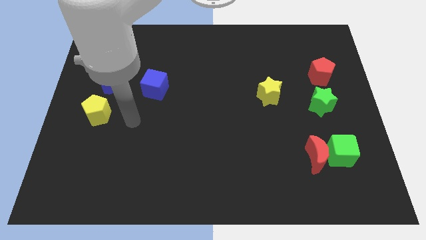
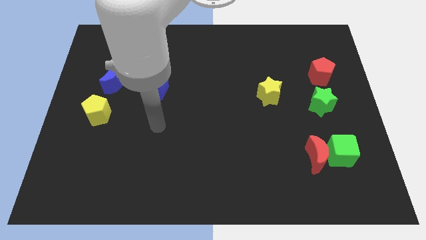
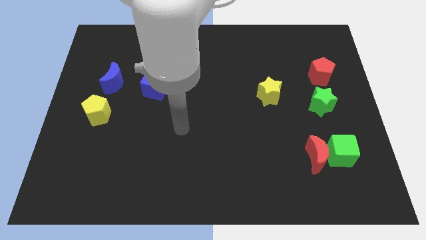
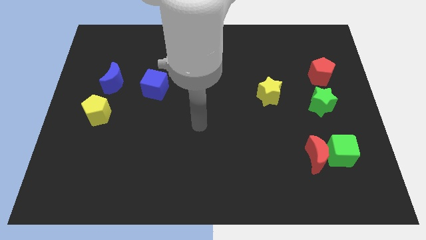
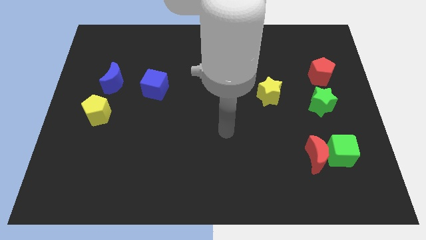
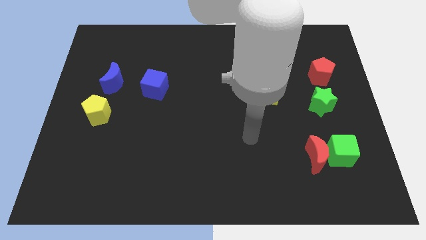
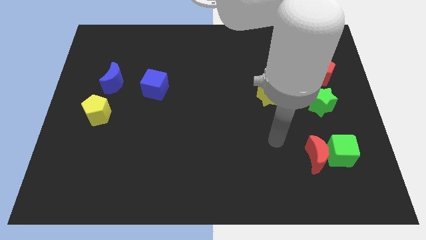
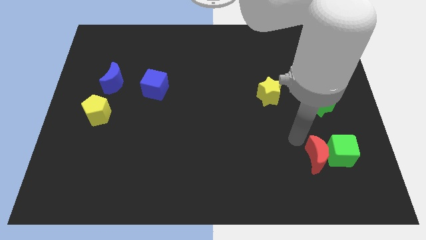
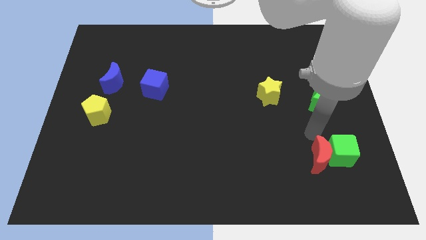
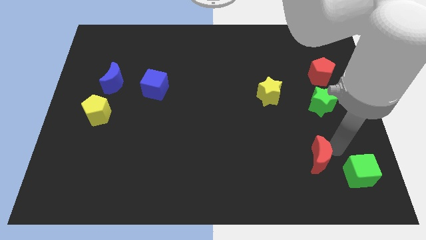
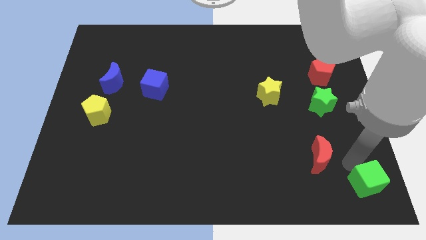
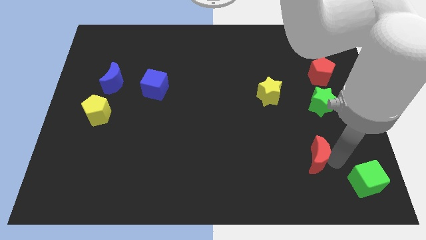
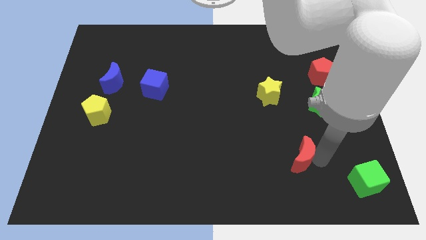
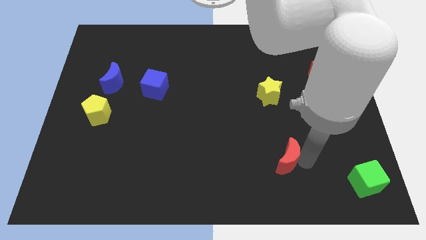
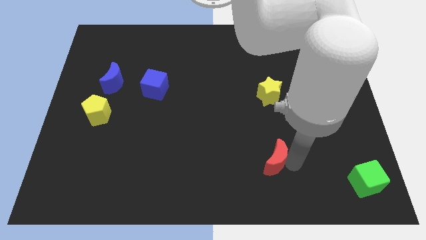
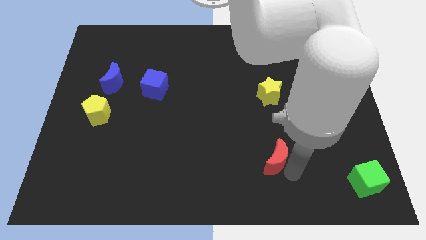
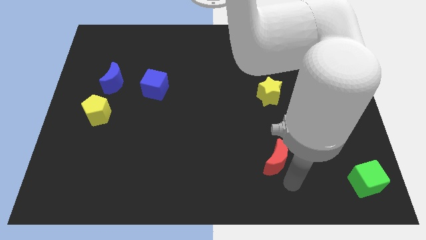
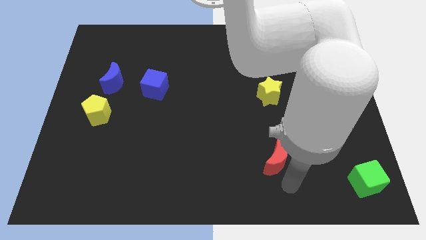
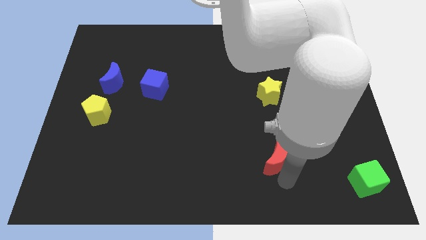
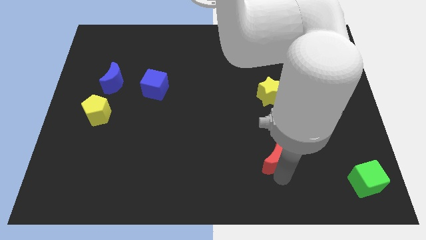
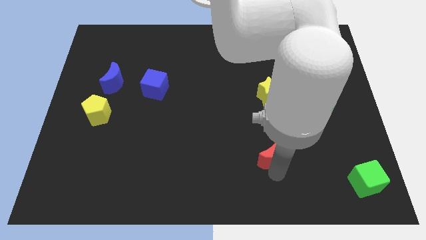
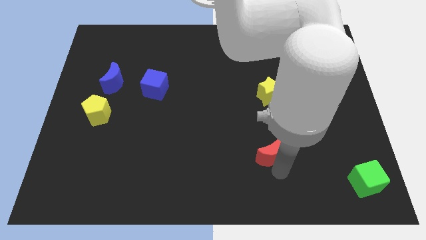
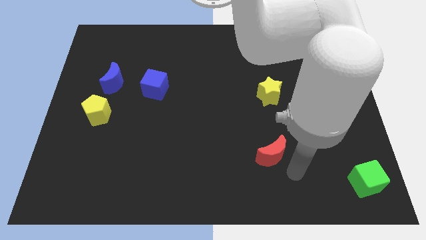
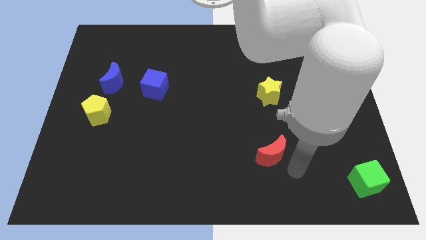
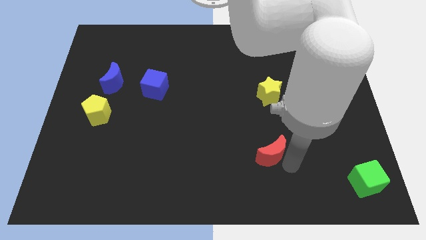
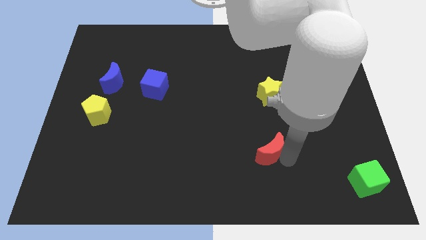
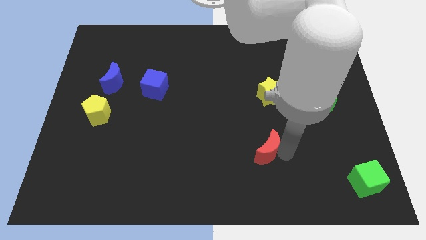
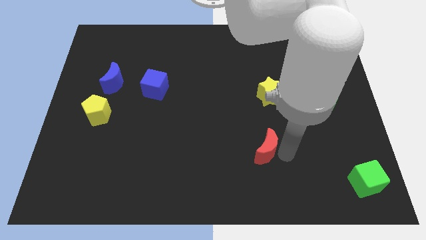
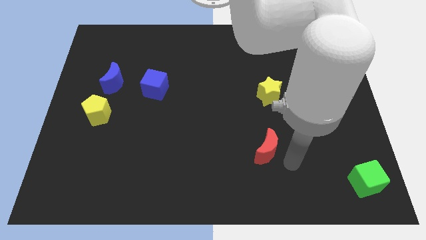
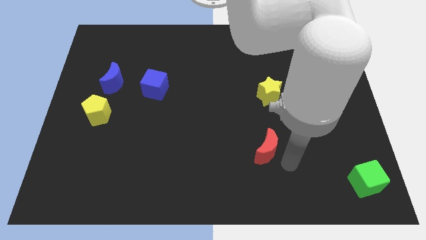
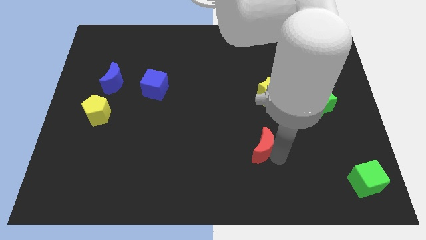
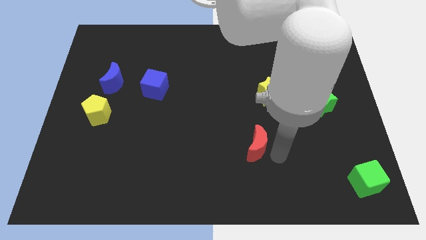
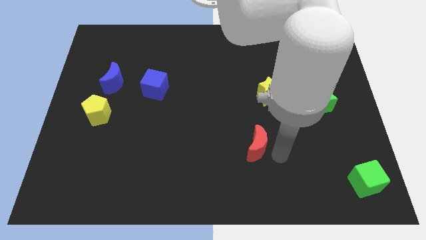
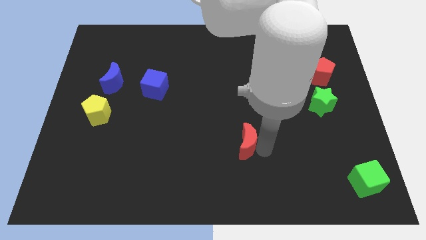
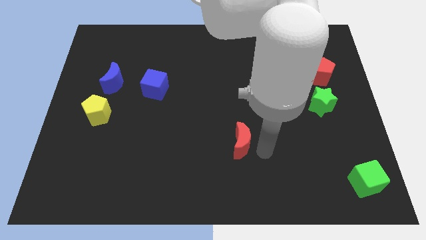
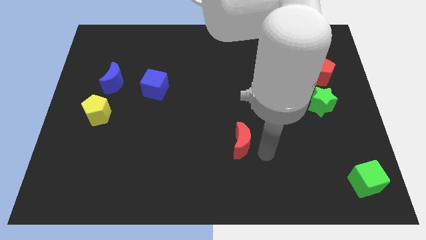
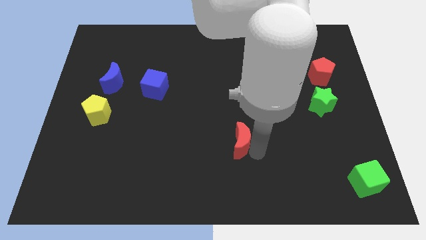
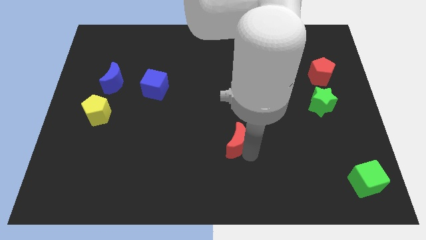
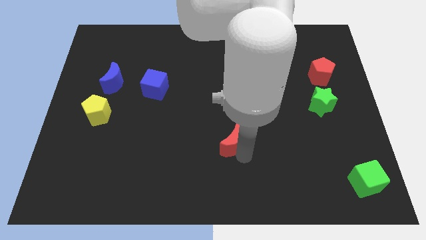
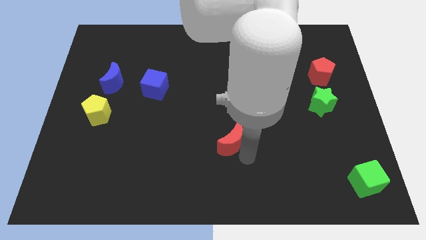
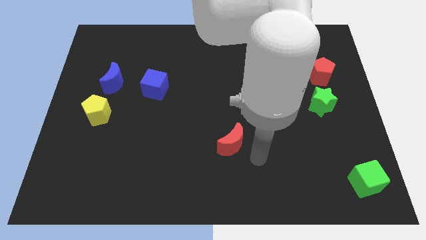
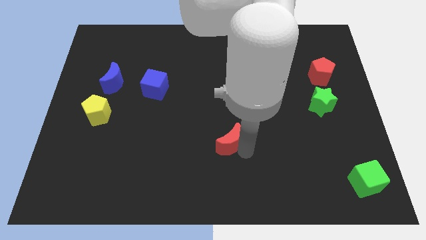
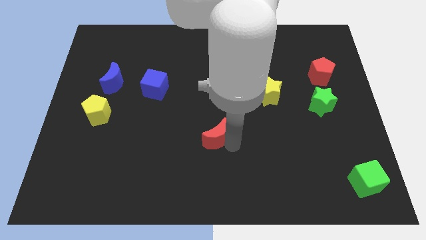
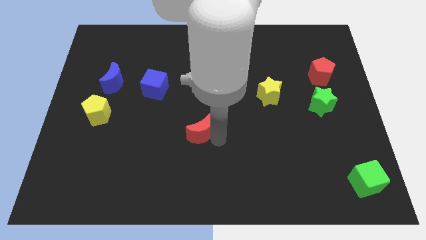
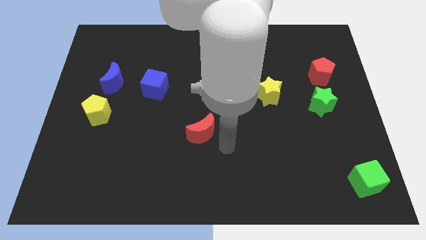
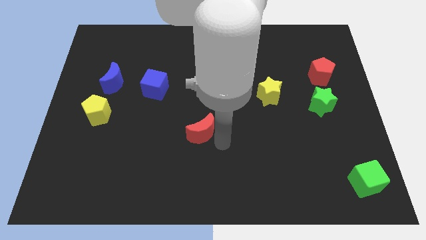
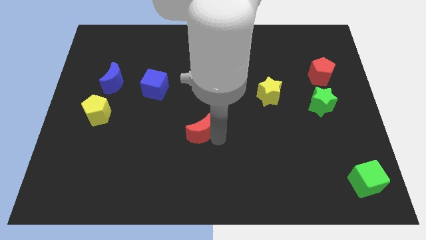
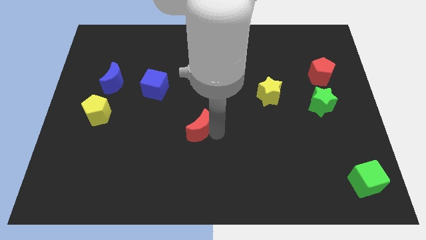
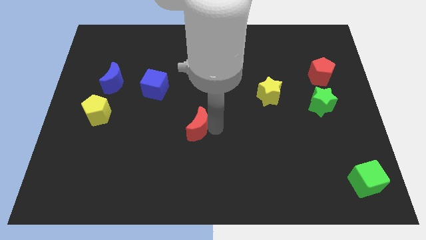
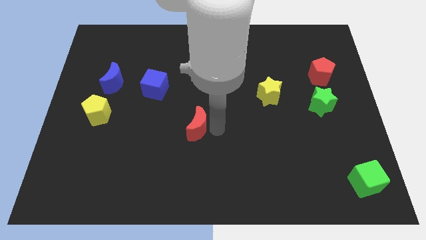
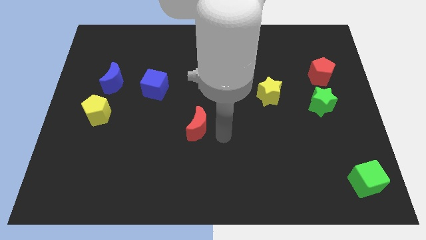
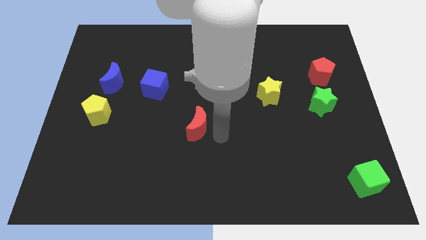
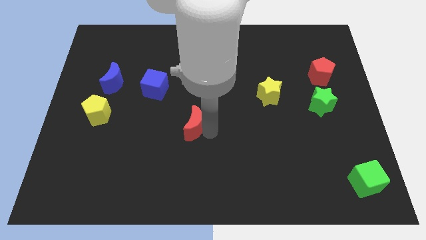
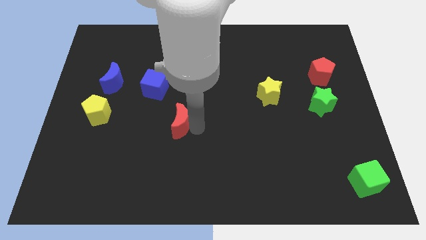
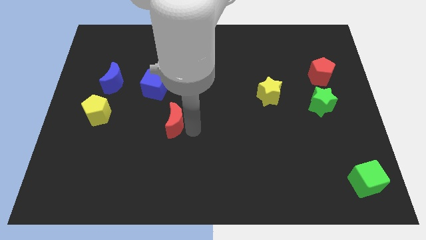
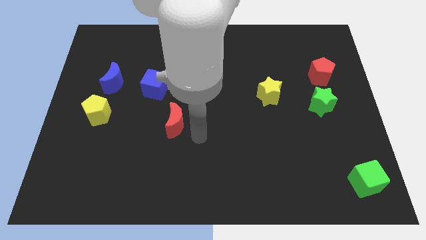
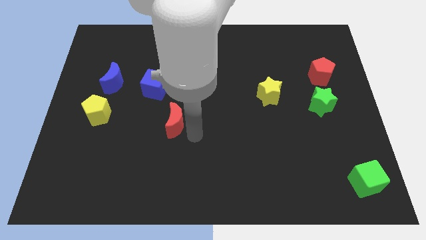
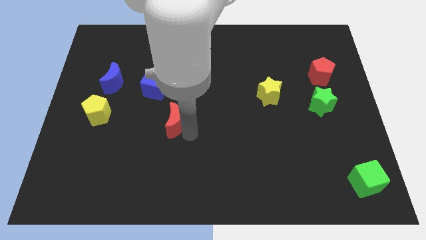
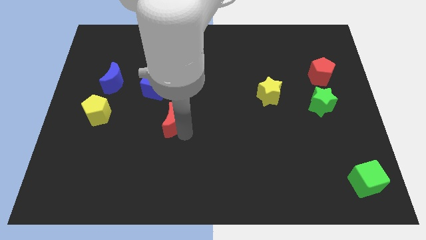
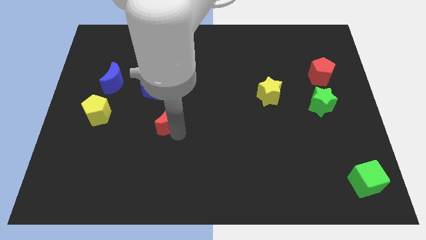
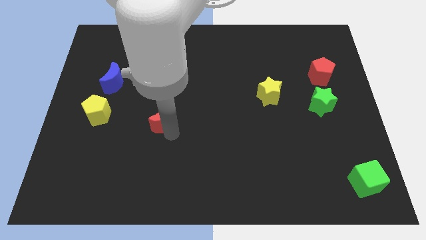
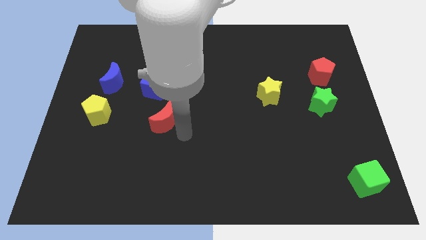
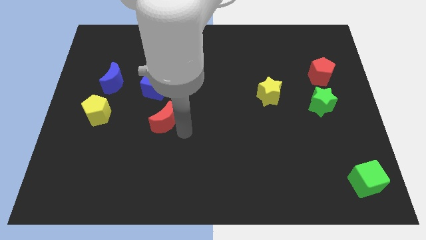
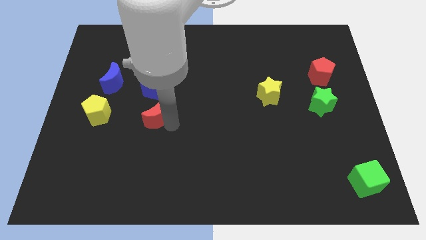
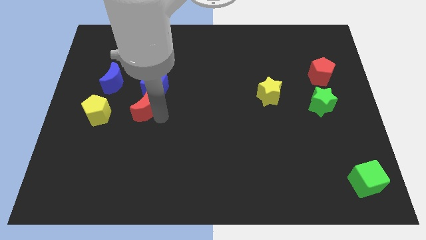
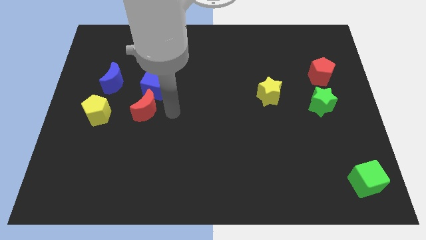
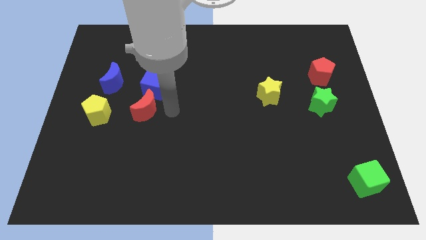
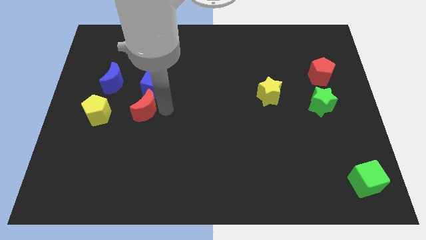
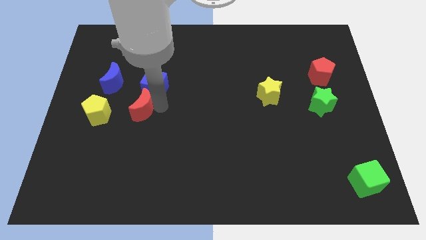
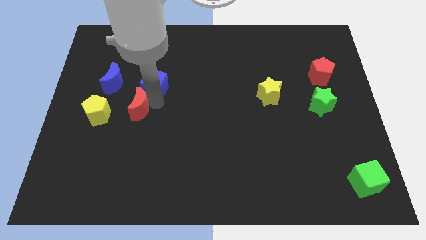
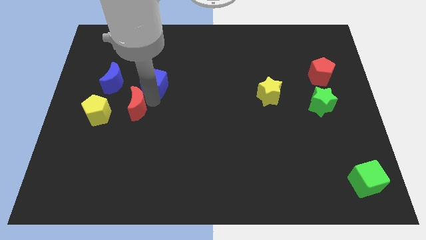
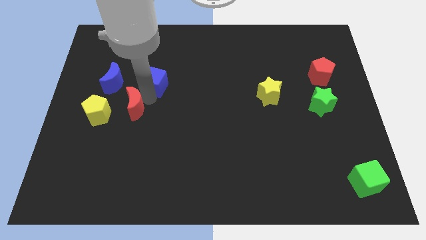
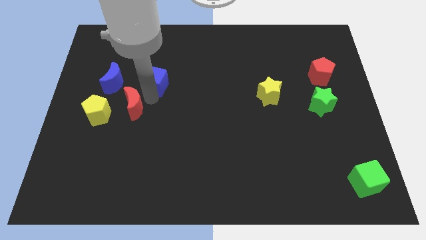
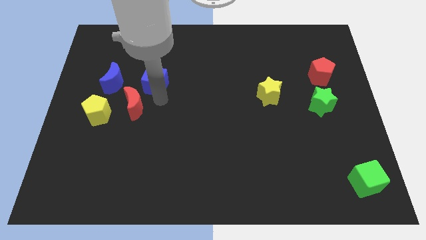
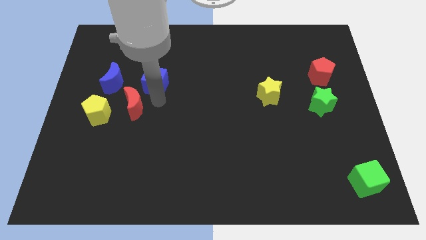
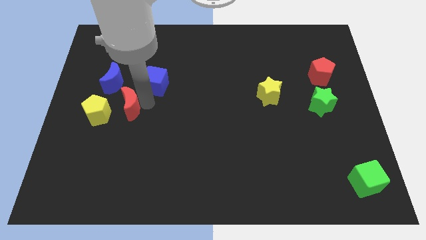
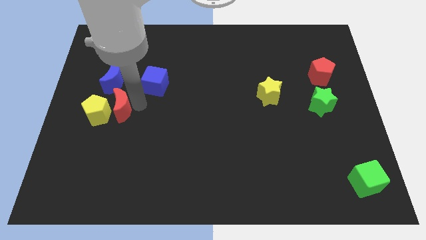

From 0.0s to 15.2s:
put the red moon close to the yellow pentagon
